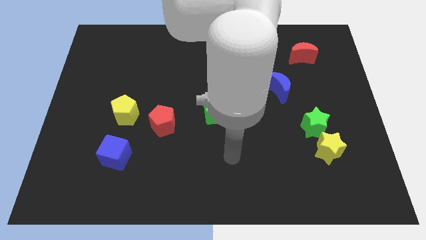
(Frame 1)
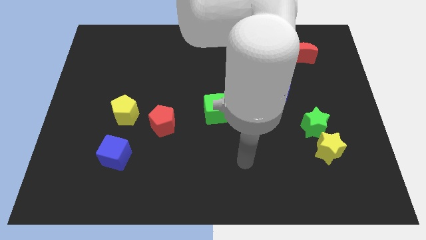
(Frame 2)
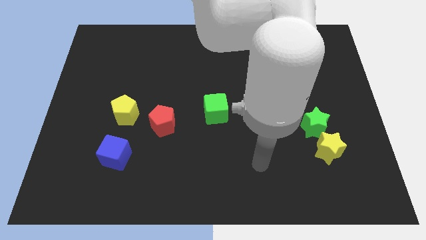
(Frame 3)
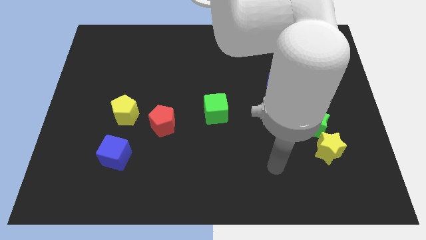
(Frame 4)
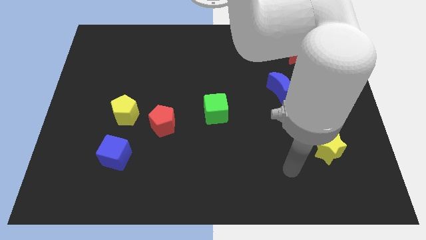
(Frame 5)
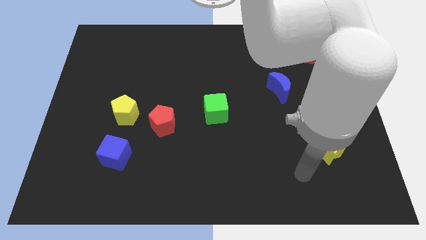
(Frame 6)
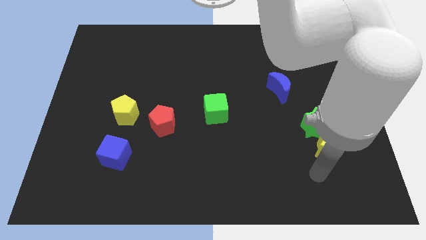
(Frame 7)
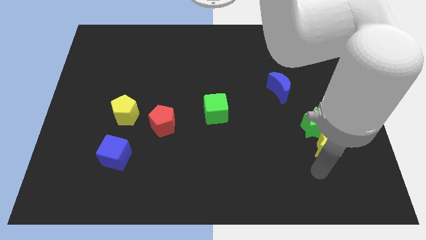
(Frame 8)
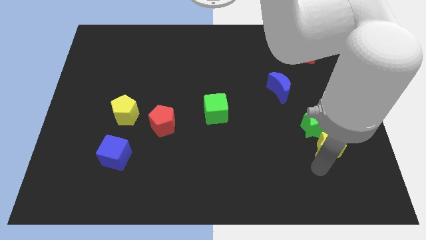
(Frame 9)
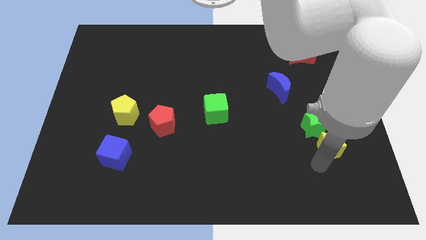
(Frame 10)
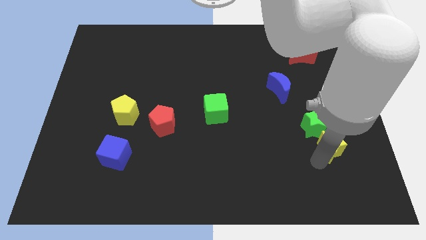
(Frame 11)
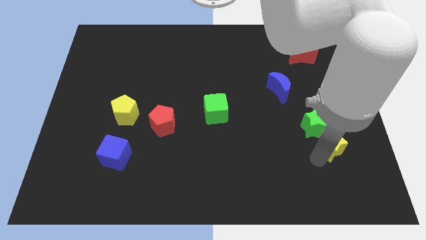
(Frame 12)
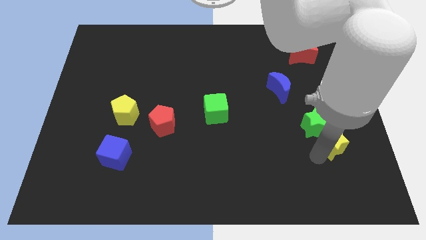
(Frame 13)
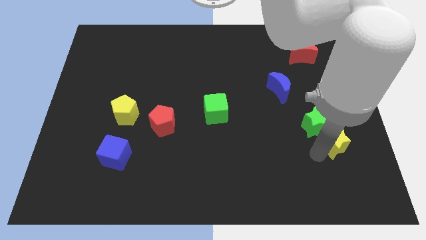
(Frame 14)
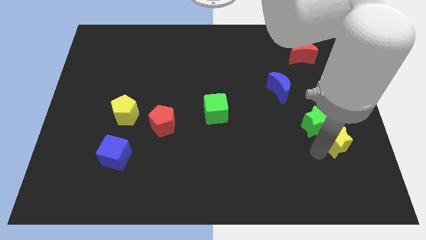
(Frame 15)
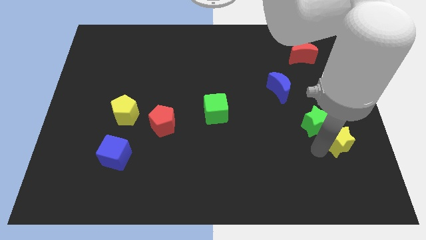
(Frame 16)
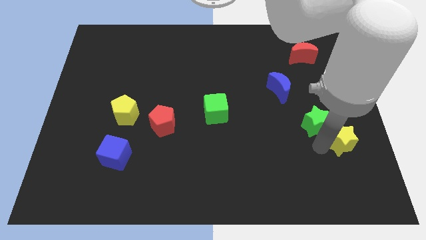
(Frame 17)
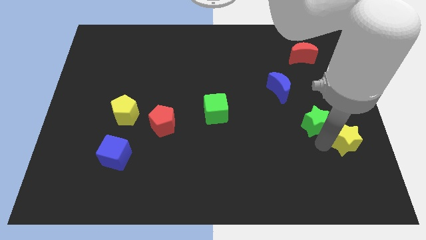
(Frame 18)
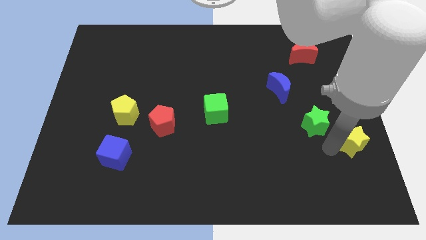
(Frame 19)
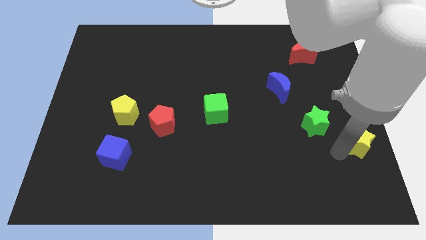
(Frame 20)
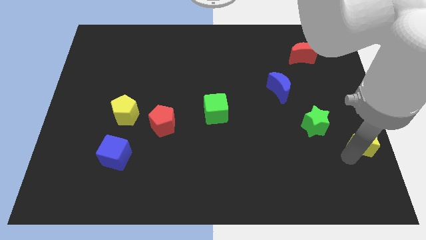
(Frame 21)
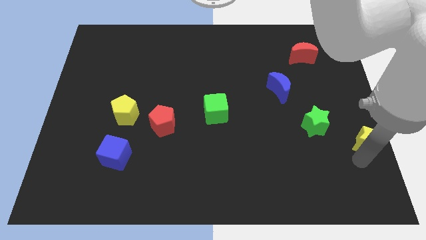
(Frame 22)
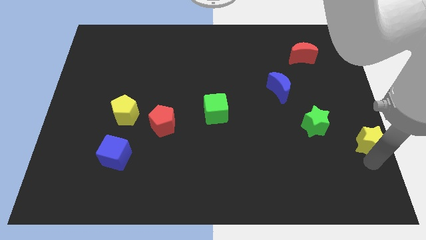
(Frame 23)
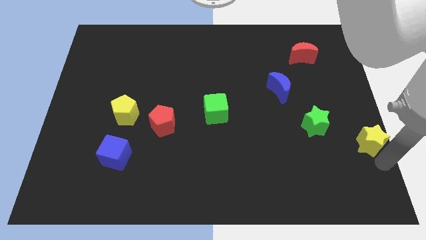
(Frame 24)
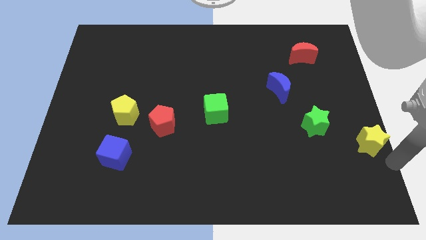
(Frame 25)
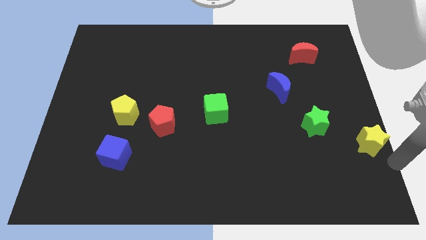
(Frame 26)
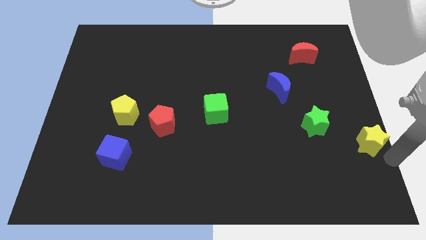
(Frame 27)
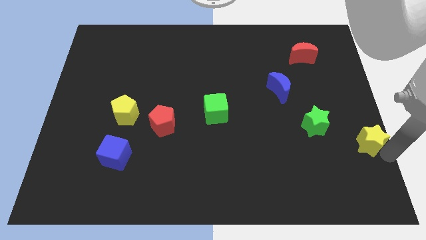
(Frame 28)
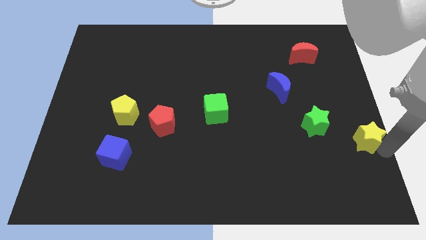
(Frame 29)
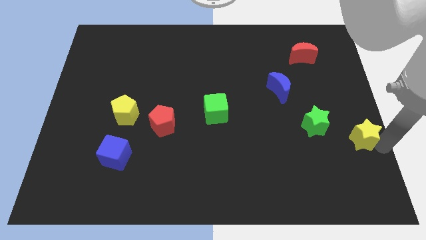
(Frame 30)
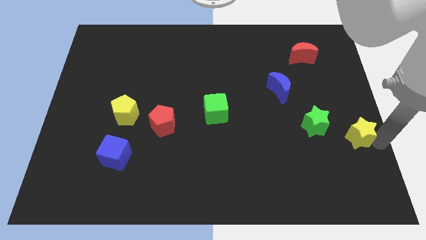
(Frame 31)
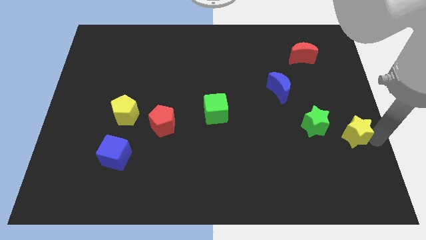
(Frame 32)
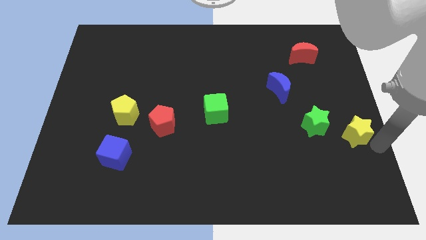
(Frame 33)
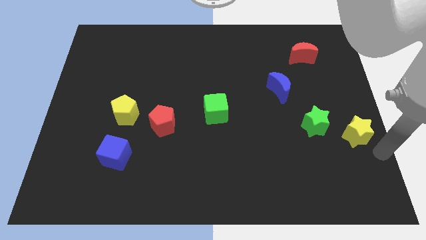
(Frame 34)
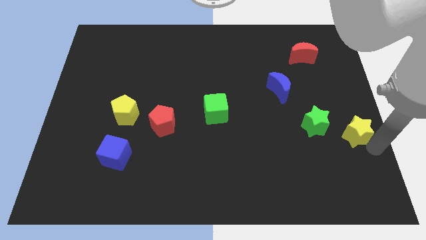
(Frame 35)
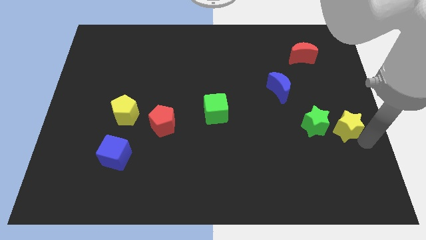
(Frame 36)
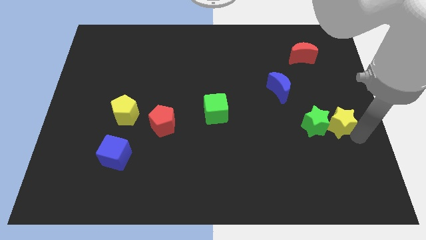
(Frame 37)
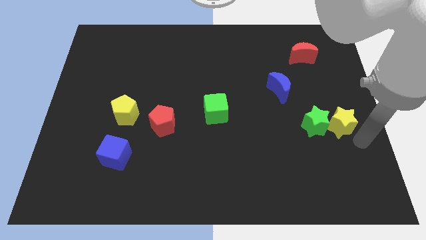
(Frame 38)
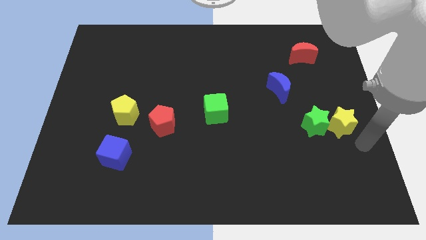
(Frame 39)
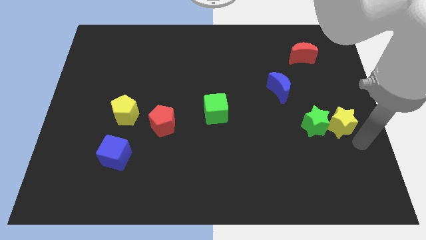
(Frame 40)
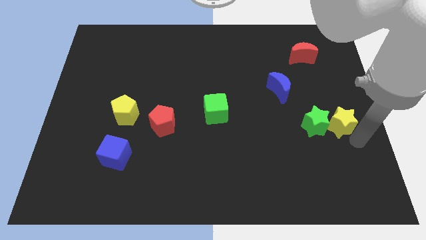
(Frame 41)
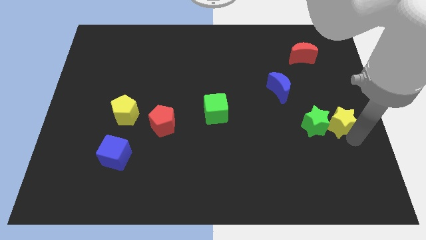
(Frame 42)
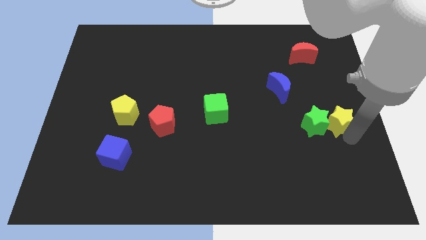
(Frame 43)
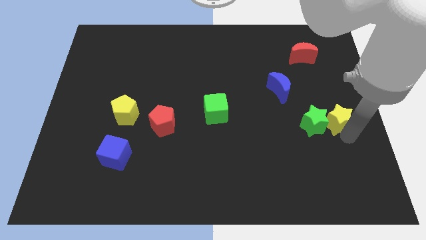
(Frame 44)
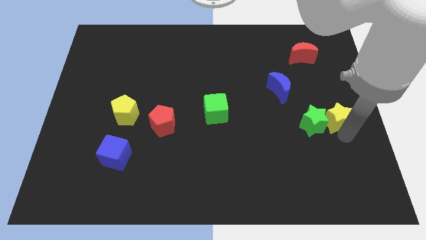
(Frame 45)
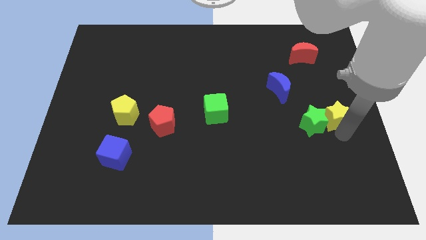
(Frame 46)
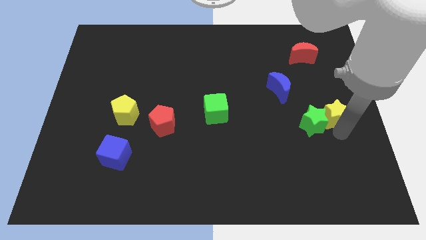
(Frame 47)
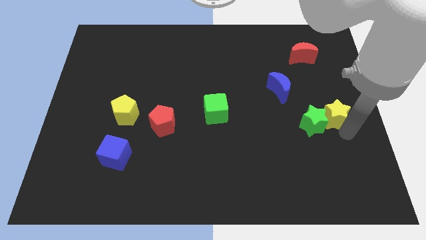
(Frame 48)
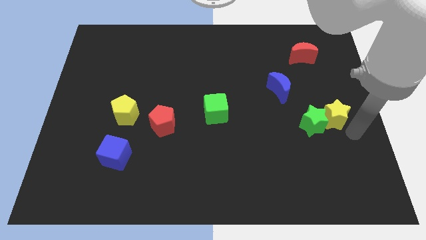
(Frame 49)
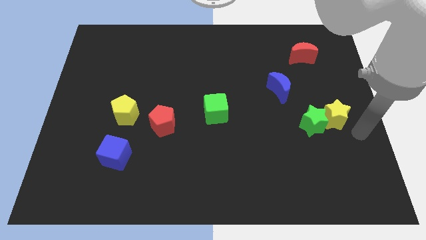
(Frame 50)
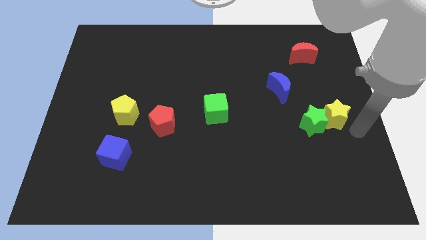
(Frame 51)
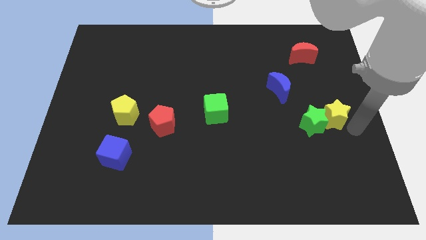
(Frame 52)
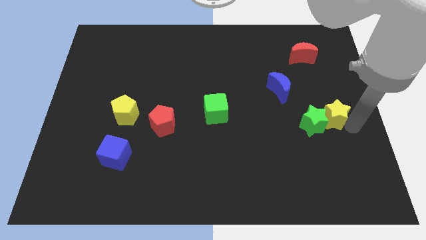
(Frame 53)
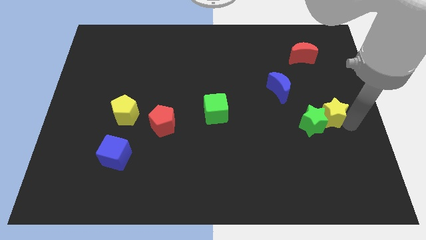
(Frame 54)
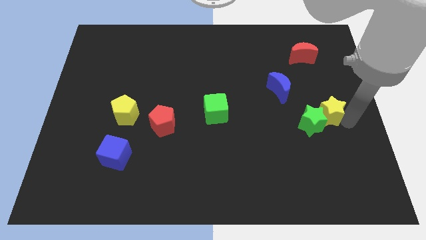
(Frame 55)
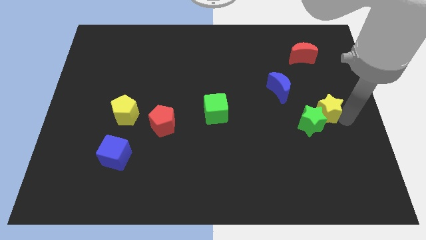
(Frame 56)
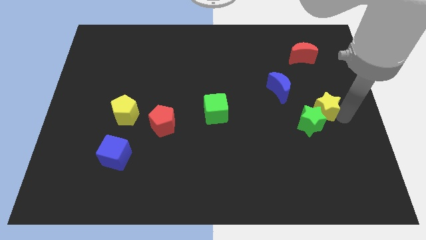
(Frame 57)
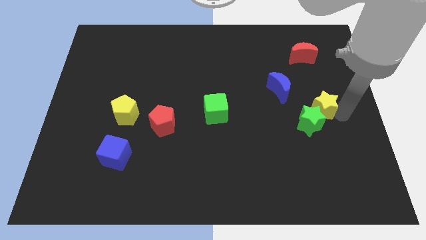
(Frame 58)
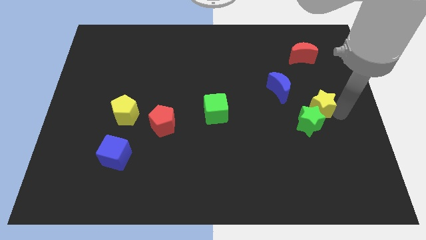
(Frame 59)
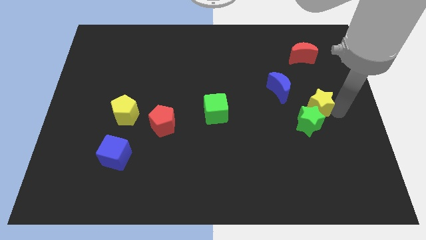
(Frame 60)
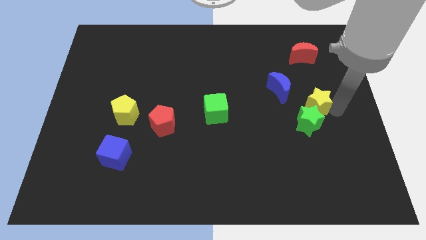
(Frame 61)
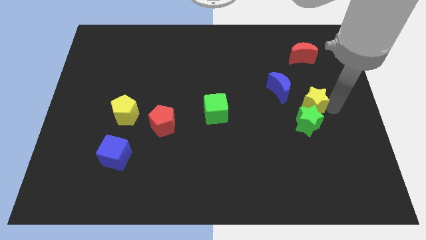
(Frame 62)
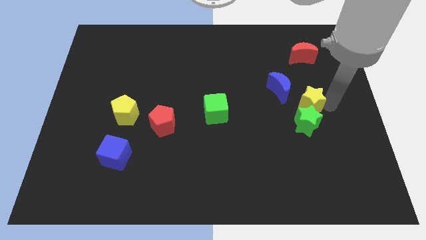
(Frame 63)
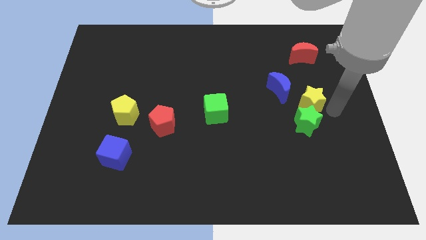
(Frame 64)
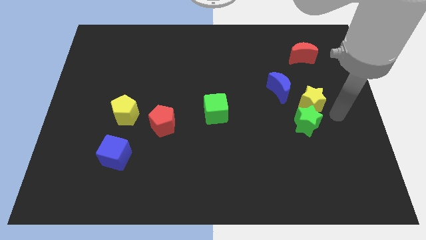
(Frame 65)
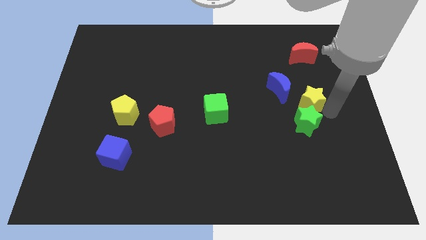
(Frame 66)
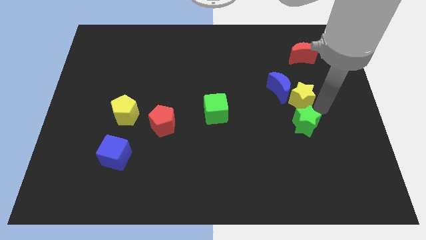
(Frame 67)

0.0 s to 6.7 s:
push the yellow star close to the blue moon

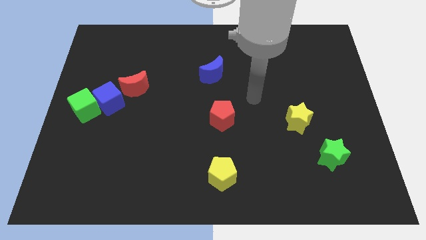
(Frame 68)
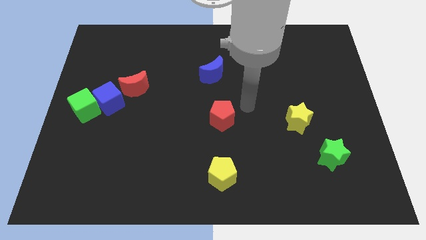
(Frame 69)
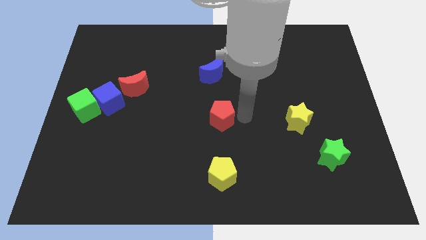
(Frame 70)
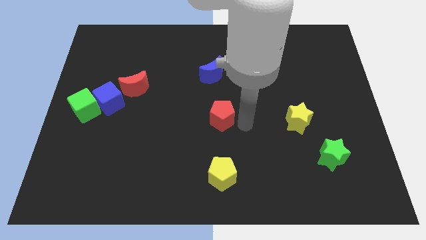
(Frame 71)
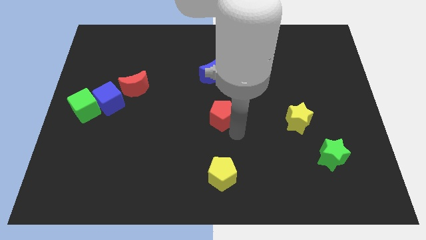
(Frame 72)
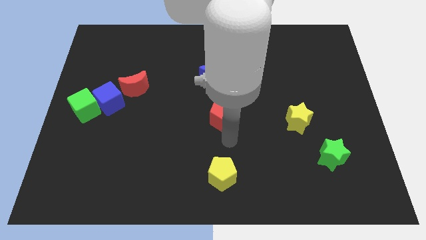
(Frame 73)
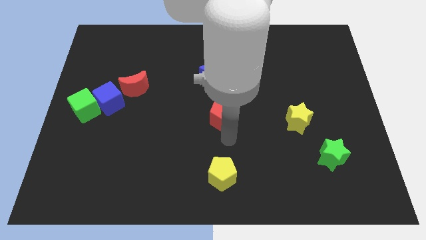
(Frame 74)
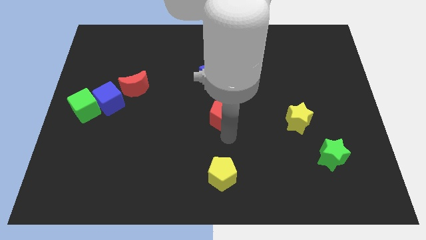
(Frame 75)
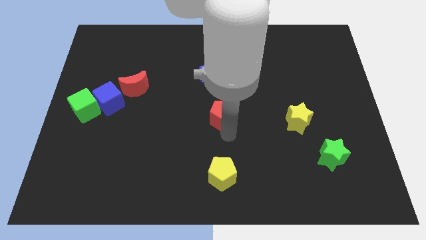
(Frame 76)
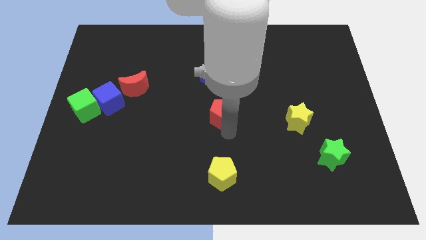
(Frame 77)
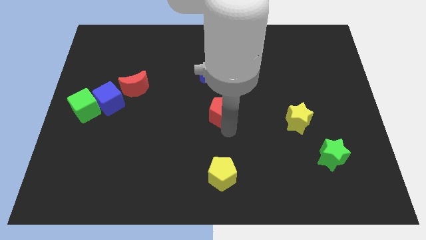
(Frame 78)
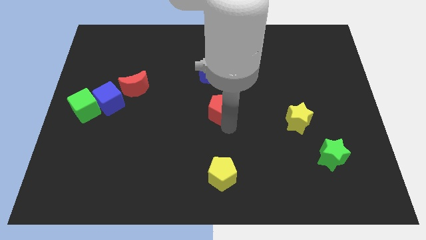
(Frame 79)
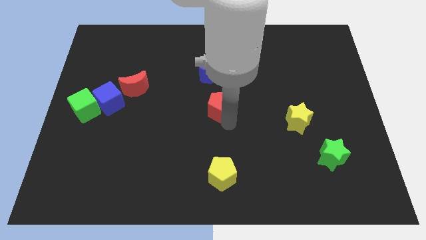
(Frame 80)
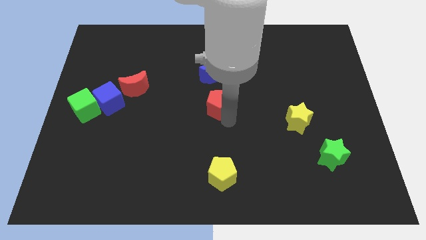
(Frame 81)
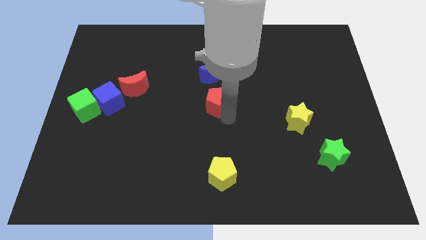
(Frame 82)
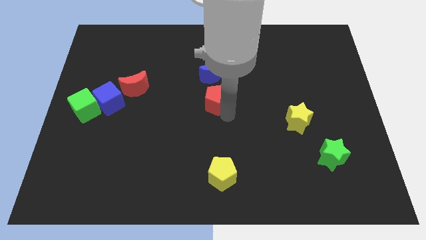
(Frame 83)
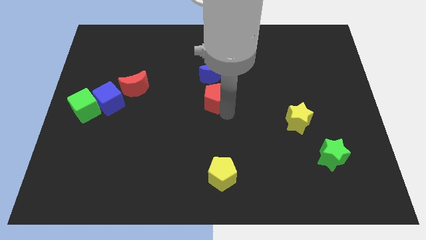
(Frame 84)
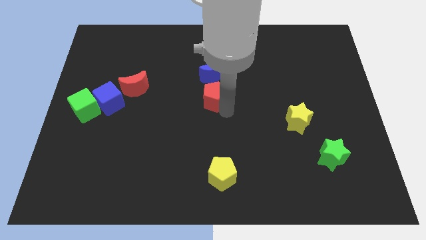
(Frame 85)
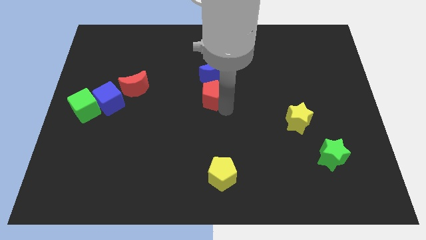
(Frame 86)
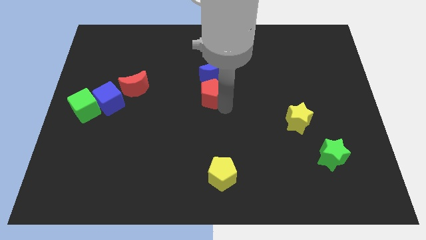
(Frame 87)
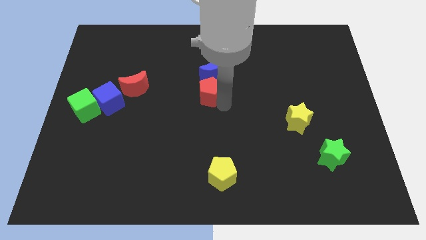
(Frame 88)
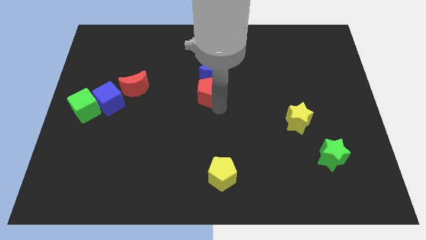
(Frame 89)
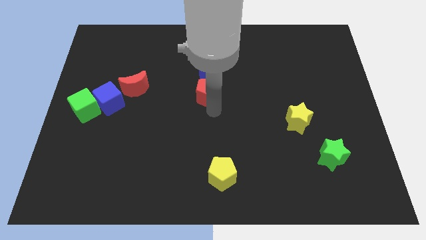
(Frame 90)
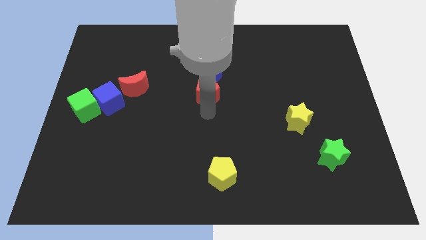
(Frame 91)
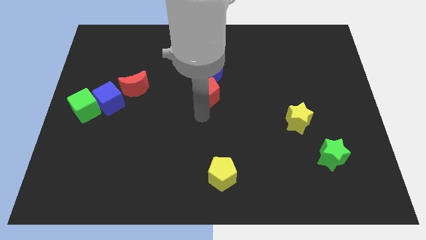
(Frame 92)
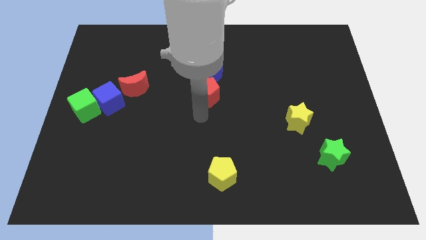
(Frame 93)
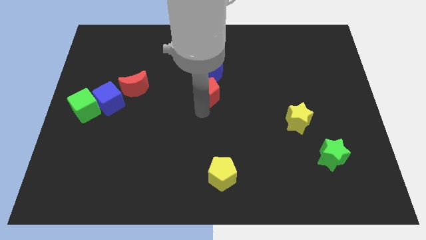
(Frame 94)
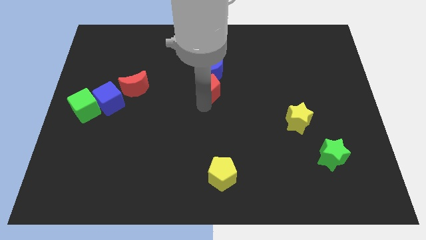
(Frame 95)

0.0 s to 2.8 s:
put the red pentagon to the blue moon
